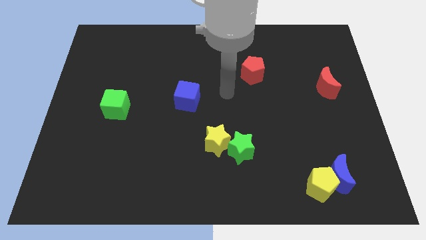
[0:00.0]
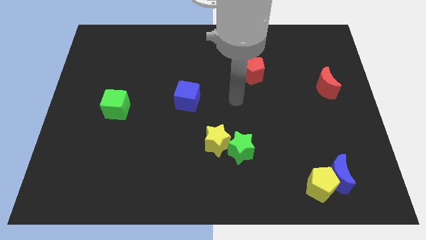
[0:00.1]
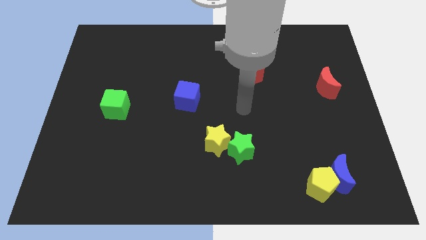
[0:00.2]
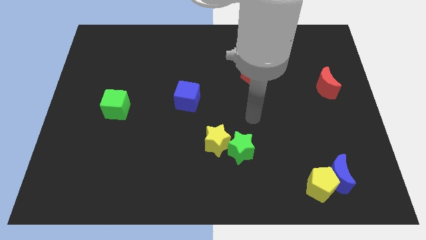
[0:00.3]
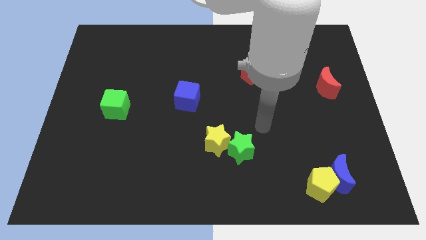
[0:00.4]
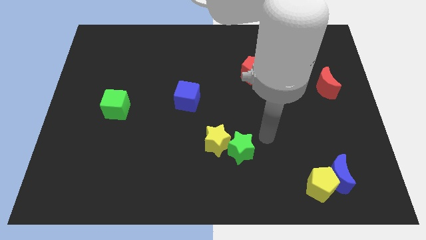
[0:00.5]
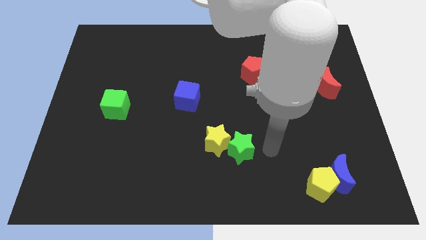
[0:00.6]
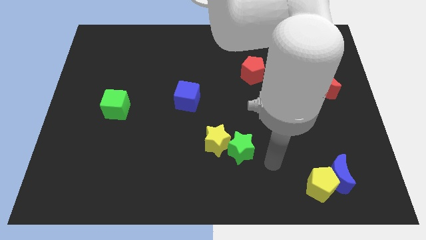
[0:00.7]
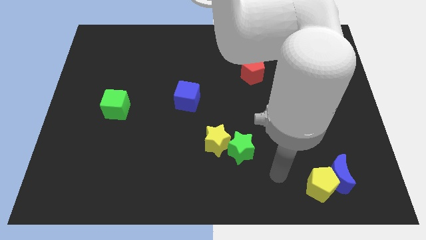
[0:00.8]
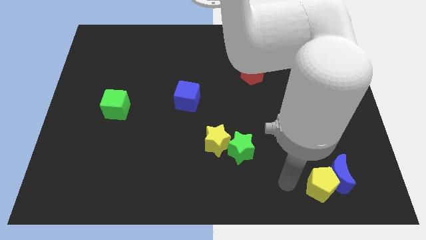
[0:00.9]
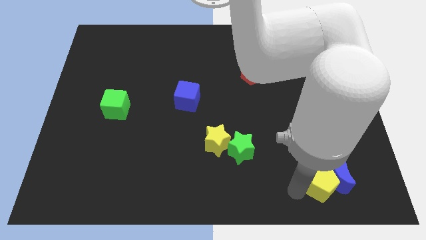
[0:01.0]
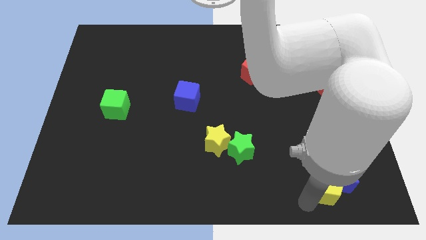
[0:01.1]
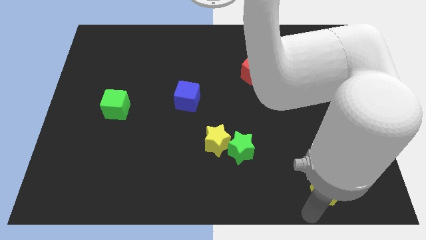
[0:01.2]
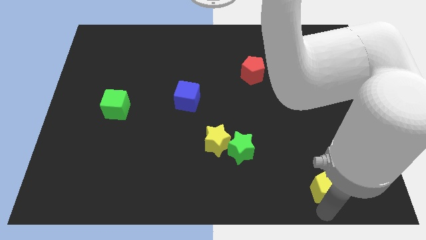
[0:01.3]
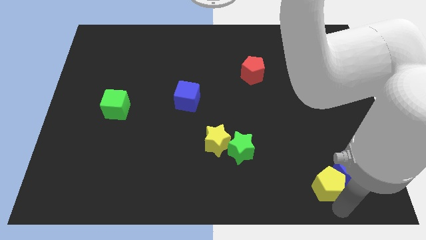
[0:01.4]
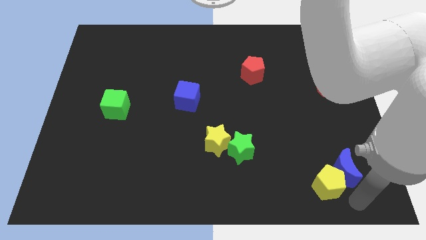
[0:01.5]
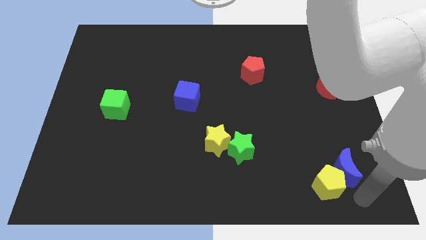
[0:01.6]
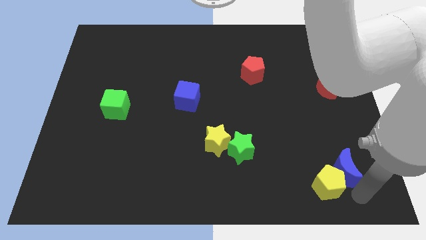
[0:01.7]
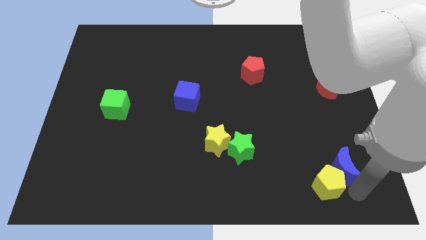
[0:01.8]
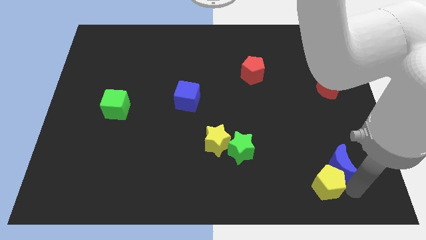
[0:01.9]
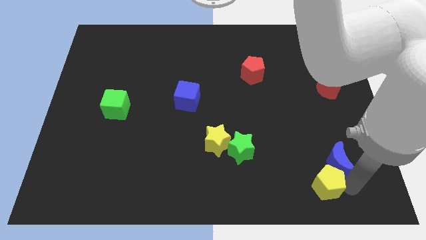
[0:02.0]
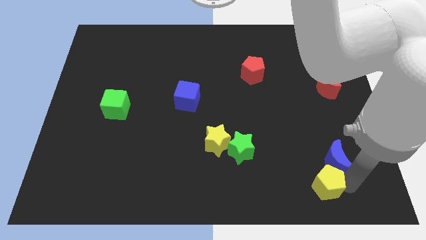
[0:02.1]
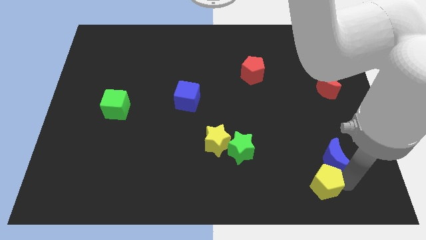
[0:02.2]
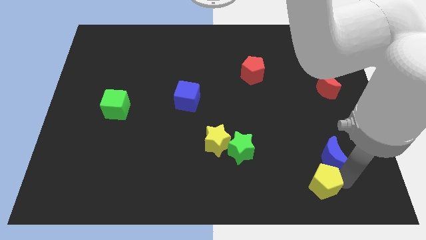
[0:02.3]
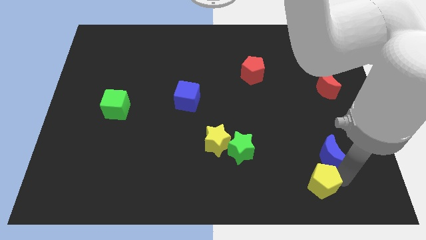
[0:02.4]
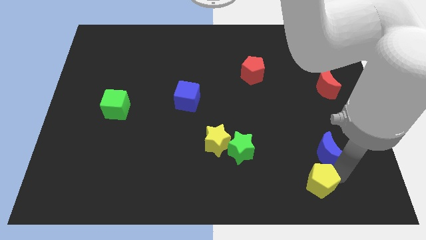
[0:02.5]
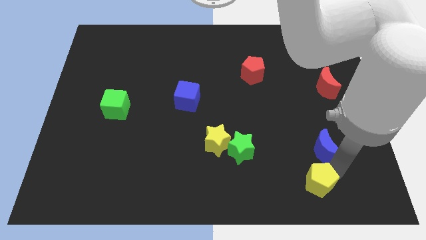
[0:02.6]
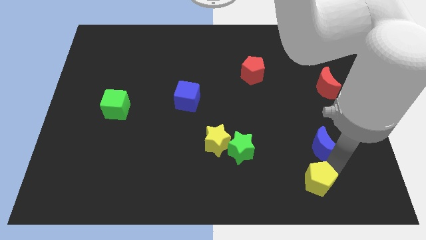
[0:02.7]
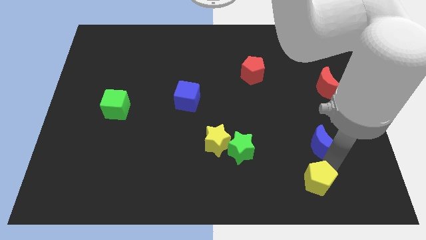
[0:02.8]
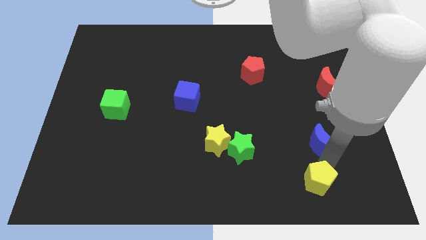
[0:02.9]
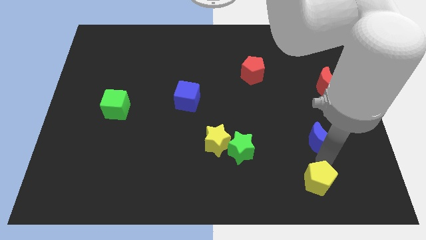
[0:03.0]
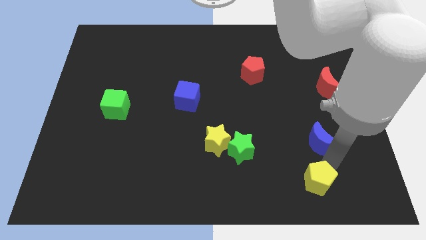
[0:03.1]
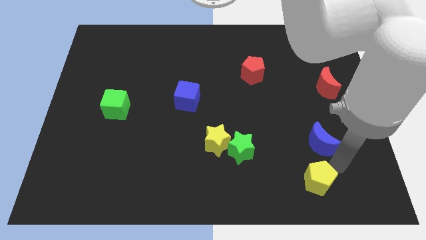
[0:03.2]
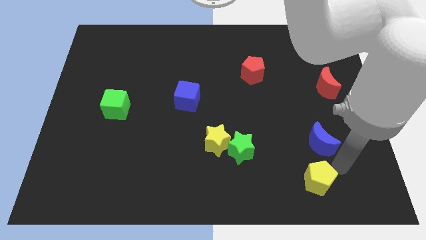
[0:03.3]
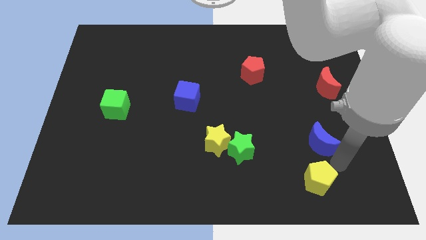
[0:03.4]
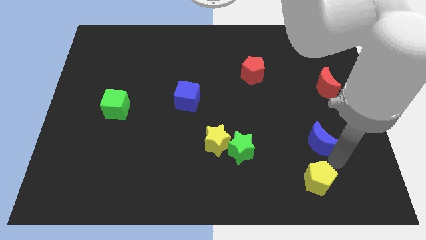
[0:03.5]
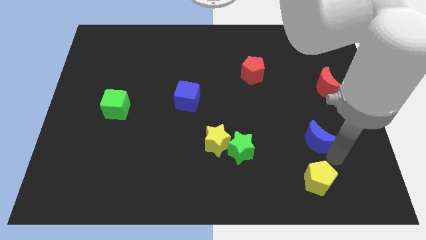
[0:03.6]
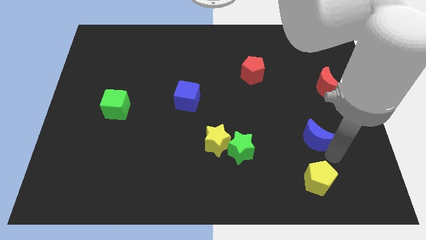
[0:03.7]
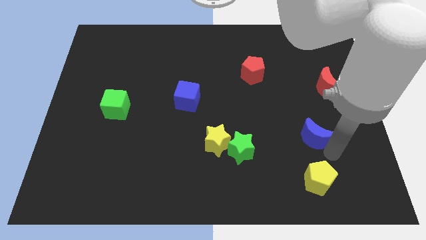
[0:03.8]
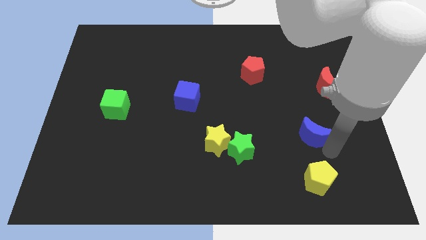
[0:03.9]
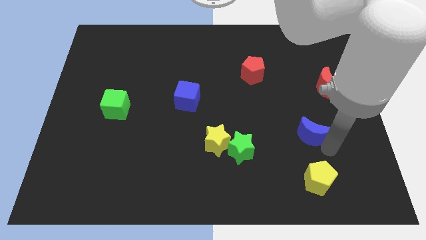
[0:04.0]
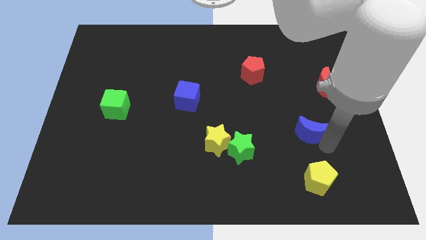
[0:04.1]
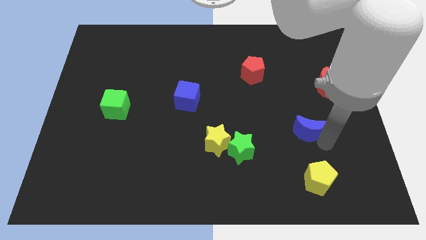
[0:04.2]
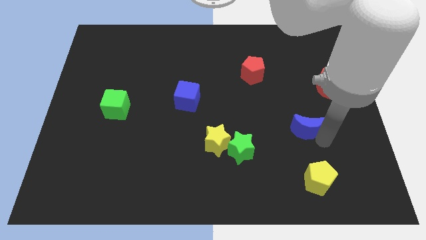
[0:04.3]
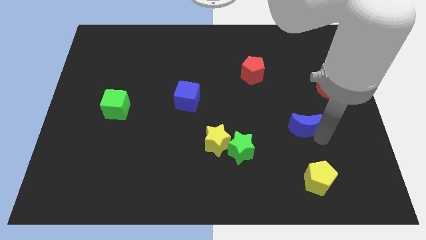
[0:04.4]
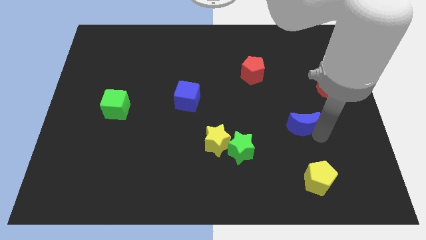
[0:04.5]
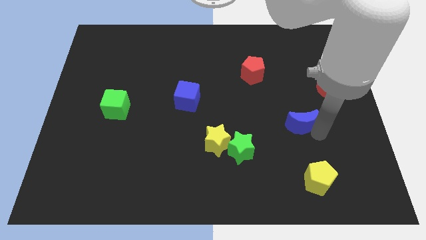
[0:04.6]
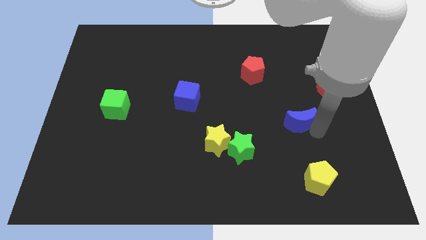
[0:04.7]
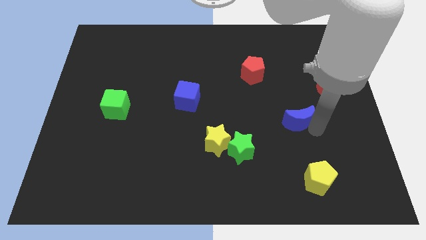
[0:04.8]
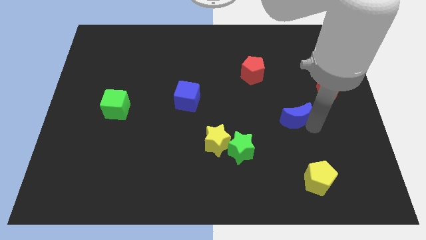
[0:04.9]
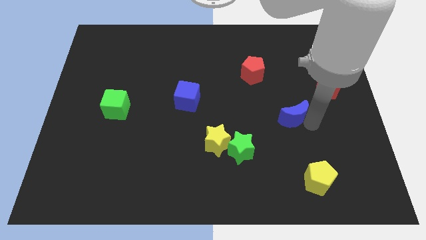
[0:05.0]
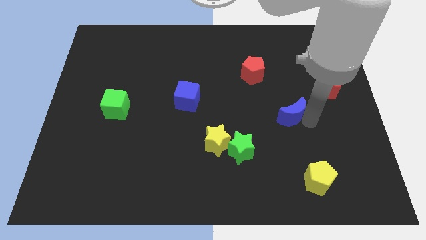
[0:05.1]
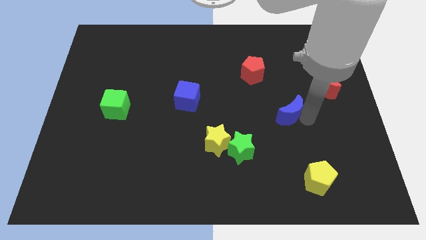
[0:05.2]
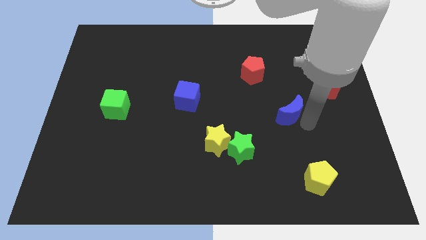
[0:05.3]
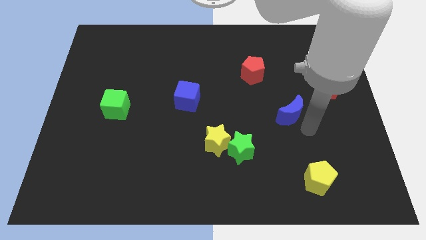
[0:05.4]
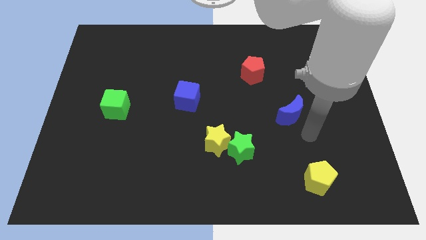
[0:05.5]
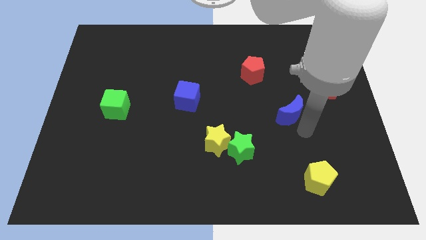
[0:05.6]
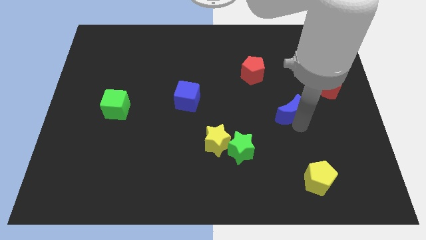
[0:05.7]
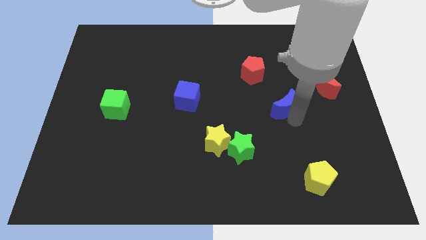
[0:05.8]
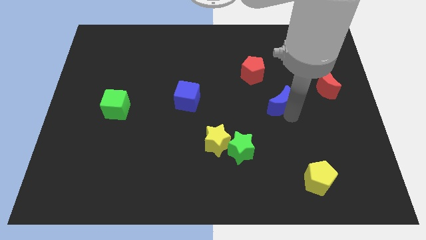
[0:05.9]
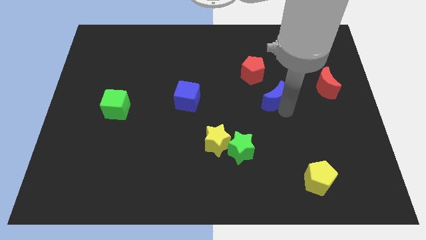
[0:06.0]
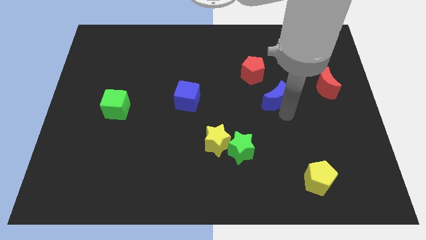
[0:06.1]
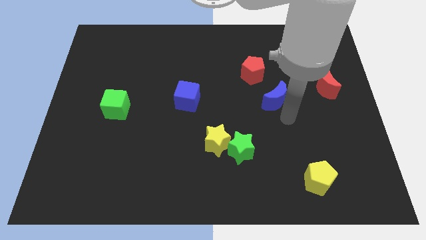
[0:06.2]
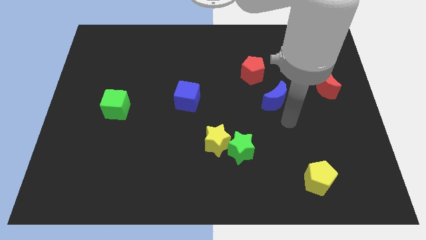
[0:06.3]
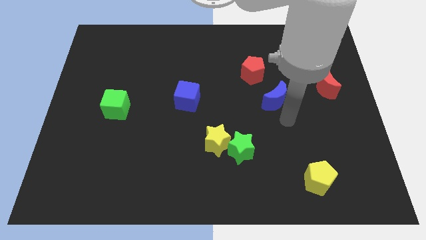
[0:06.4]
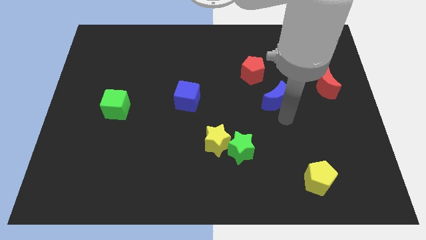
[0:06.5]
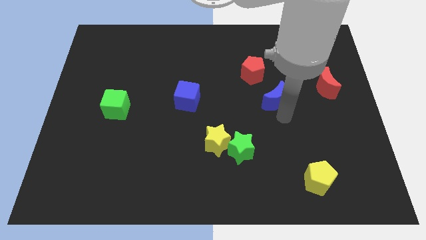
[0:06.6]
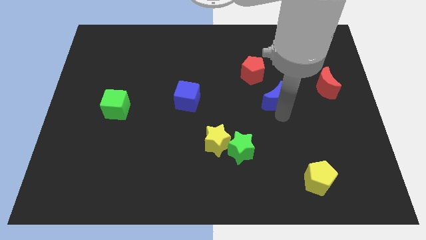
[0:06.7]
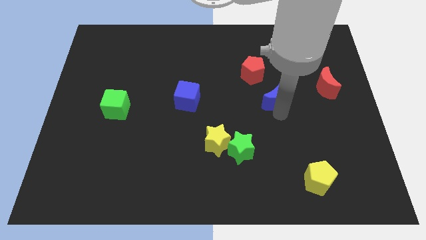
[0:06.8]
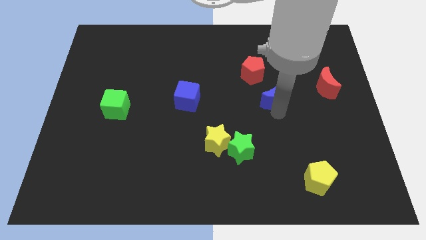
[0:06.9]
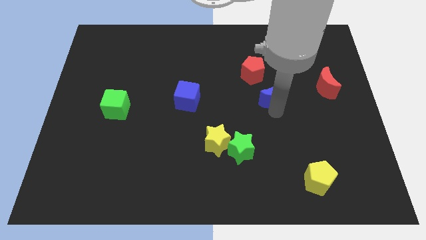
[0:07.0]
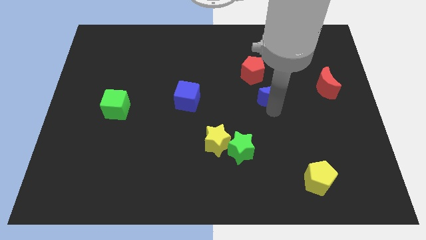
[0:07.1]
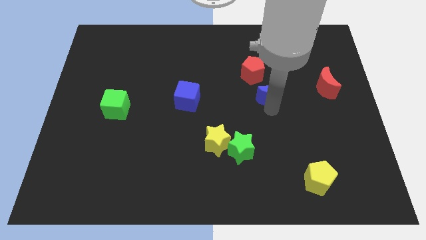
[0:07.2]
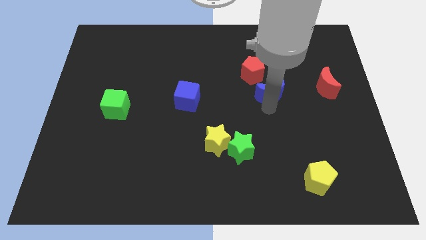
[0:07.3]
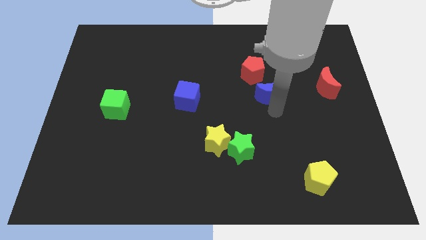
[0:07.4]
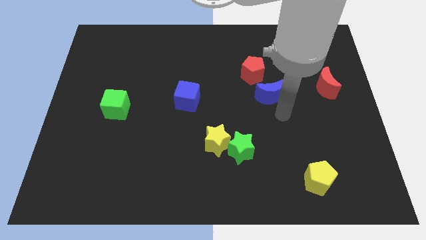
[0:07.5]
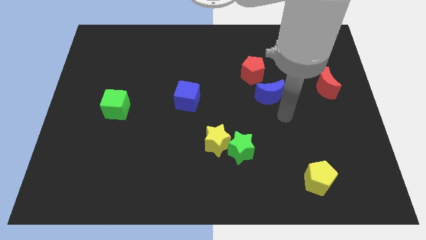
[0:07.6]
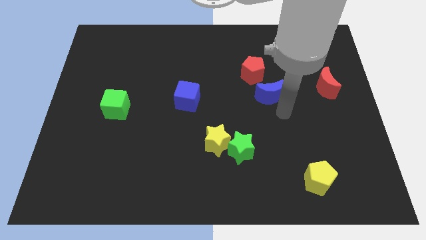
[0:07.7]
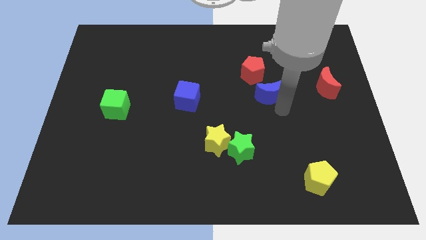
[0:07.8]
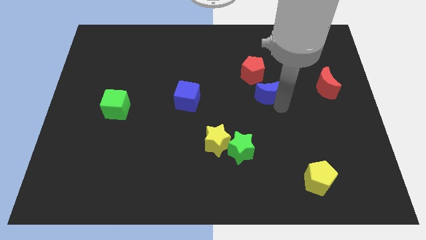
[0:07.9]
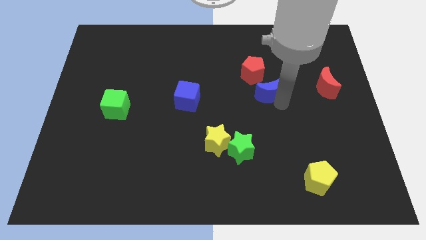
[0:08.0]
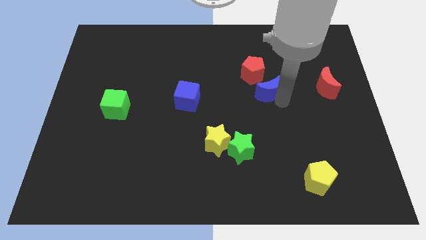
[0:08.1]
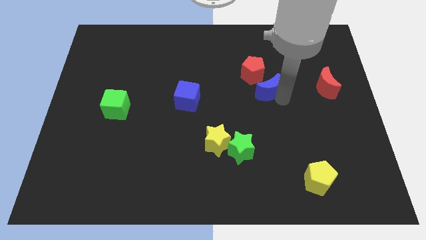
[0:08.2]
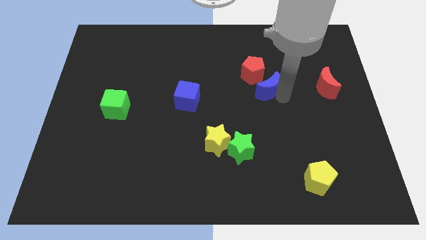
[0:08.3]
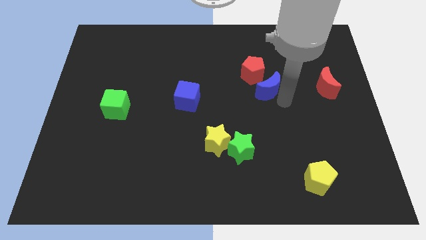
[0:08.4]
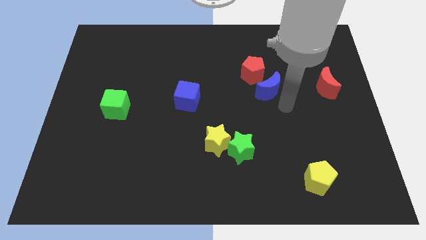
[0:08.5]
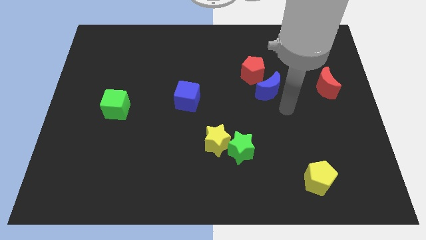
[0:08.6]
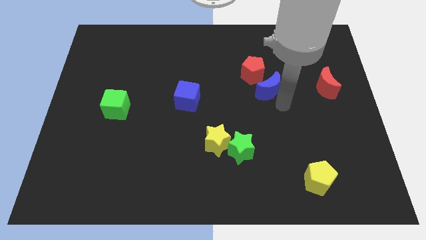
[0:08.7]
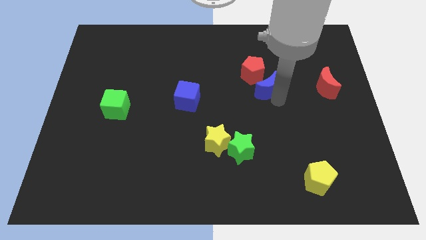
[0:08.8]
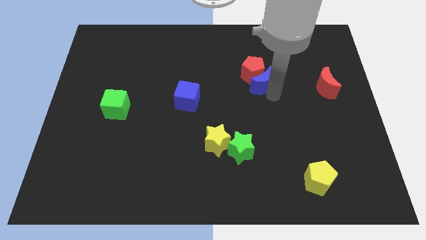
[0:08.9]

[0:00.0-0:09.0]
put the blue moon close to the red pentagon
